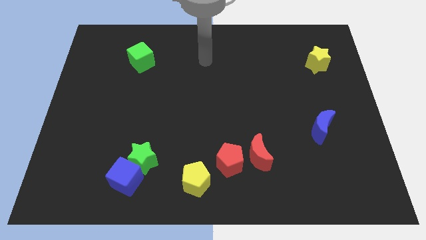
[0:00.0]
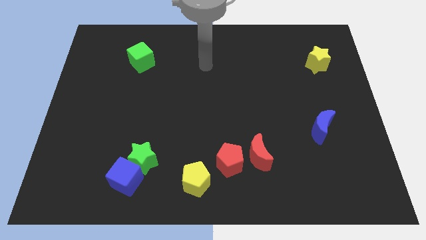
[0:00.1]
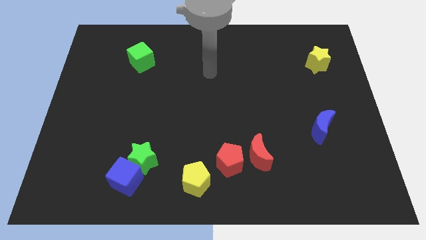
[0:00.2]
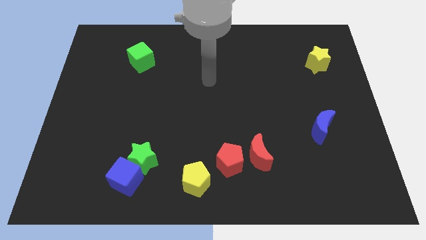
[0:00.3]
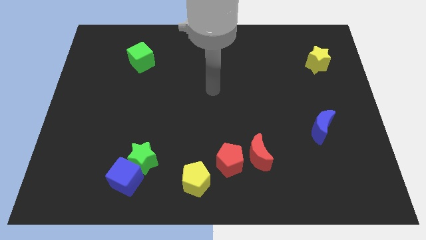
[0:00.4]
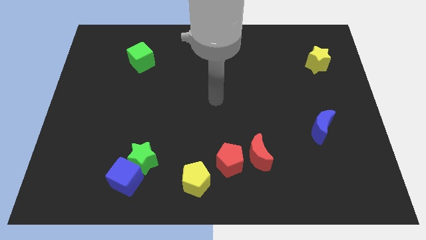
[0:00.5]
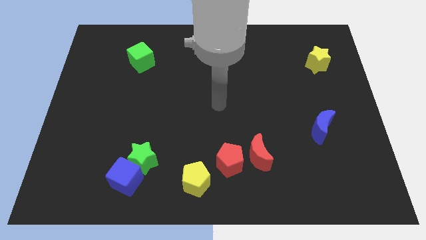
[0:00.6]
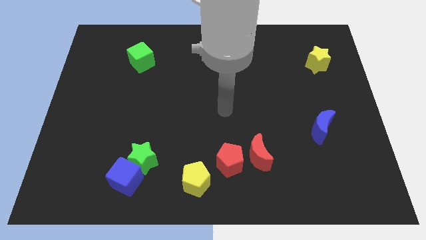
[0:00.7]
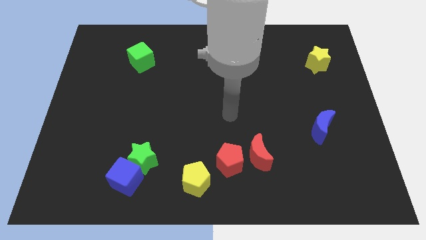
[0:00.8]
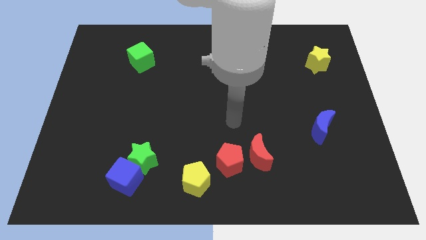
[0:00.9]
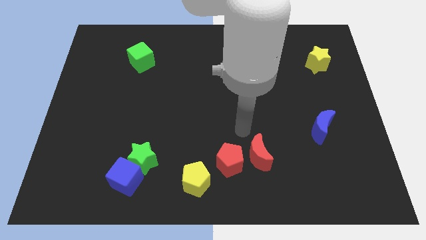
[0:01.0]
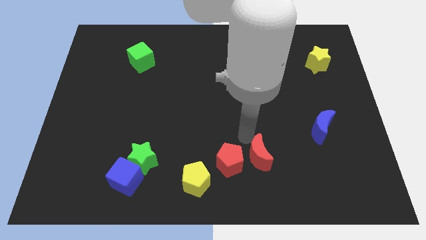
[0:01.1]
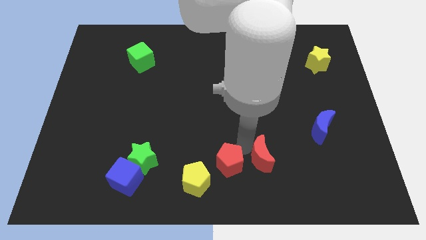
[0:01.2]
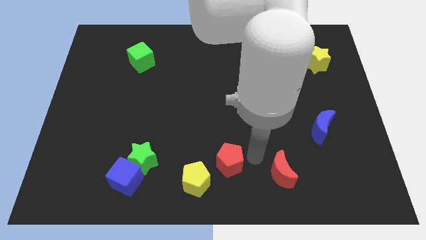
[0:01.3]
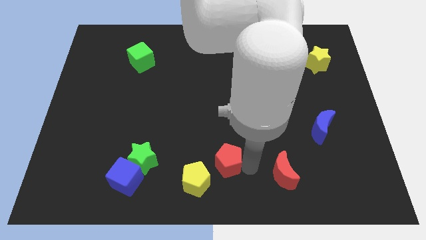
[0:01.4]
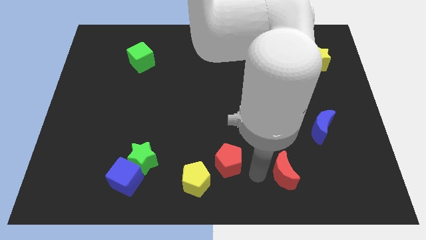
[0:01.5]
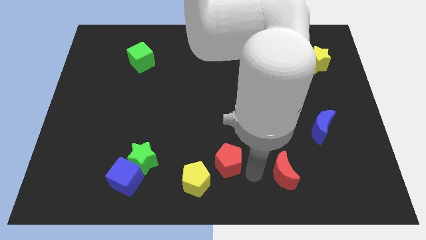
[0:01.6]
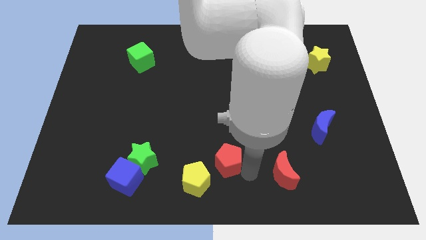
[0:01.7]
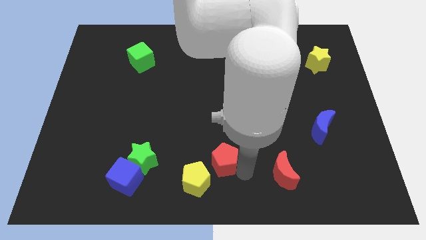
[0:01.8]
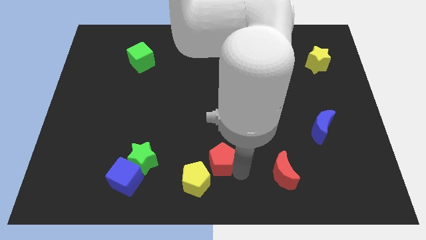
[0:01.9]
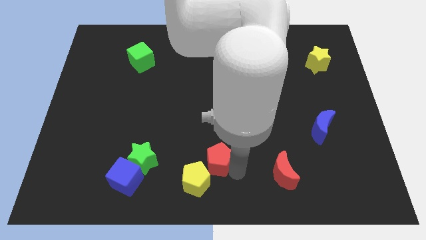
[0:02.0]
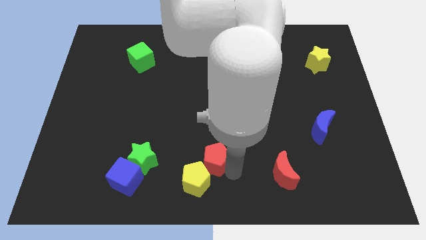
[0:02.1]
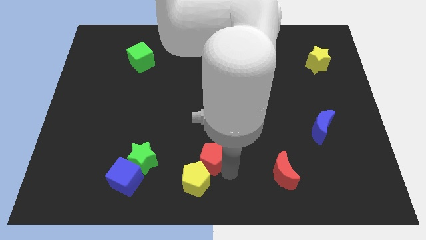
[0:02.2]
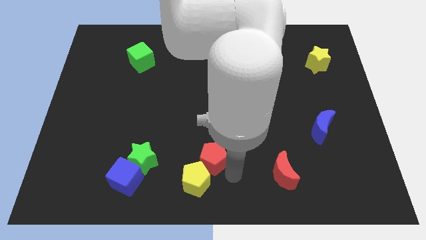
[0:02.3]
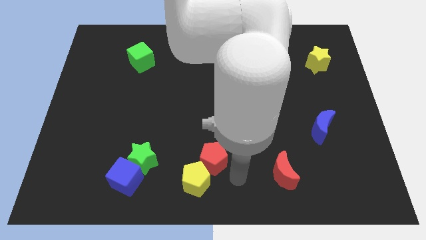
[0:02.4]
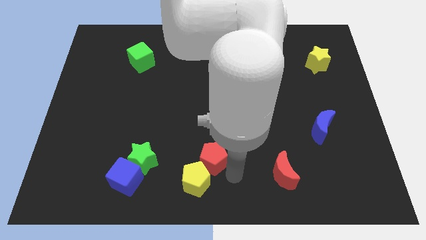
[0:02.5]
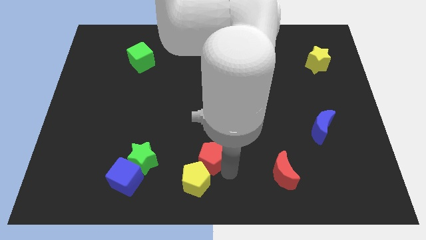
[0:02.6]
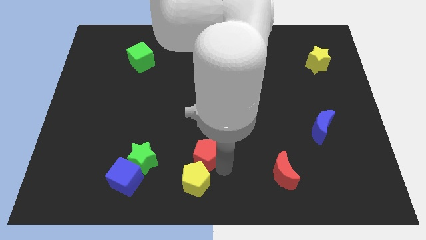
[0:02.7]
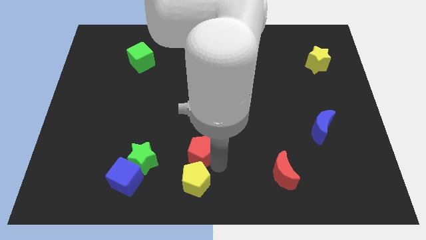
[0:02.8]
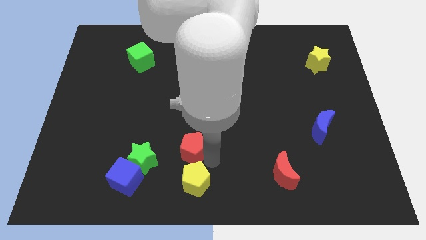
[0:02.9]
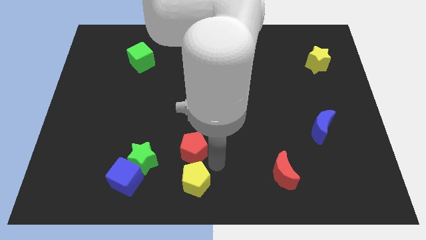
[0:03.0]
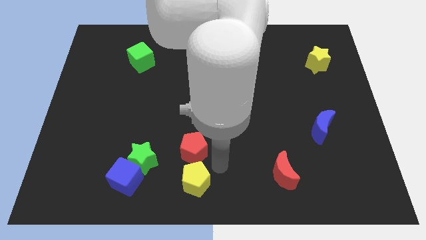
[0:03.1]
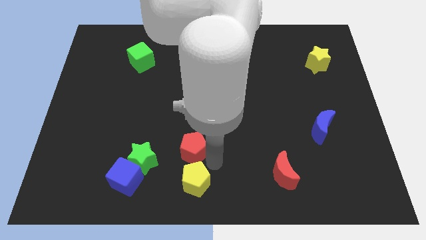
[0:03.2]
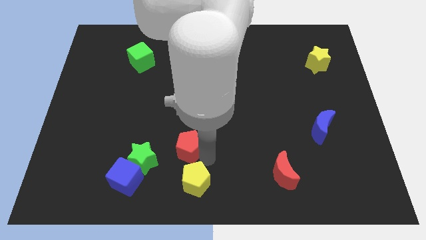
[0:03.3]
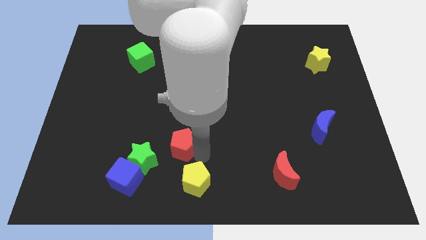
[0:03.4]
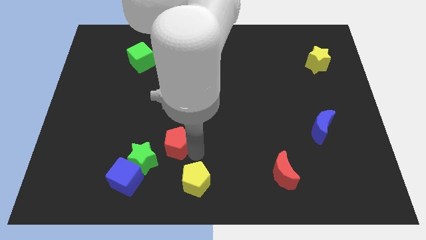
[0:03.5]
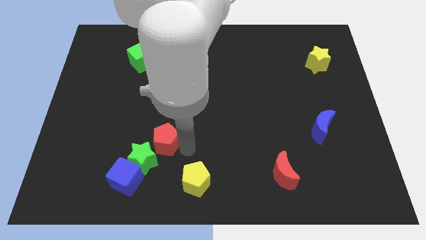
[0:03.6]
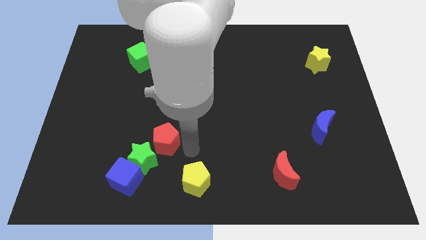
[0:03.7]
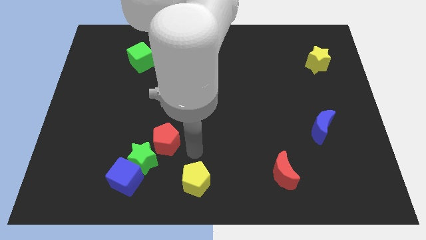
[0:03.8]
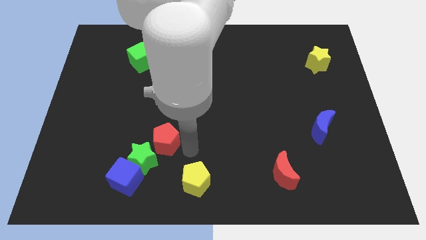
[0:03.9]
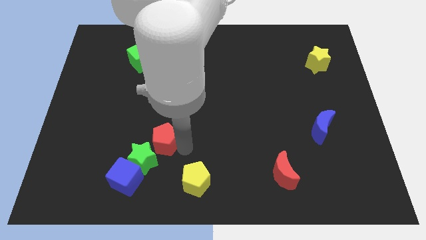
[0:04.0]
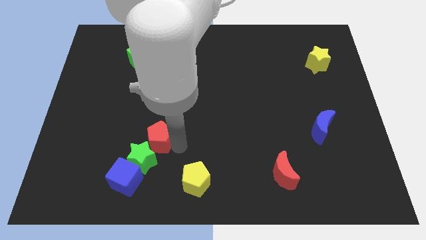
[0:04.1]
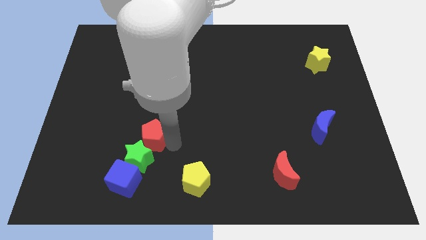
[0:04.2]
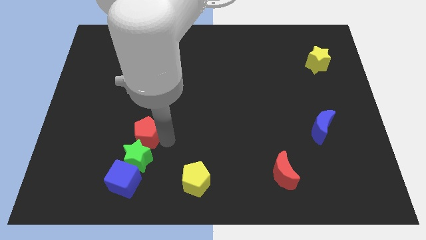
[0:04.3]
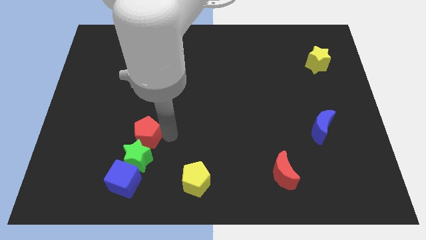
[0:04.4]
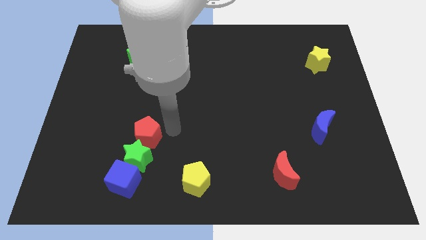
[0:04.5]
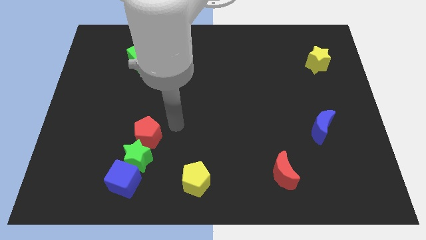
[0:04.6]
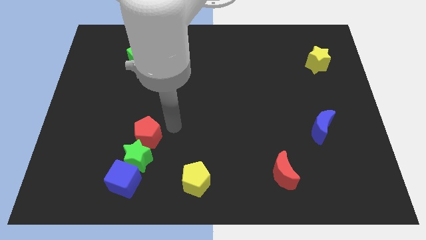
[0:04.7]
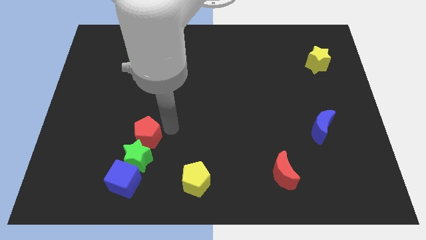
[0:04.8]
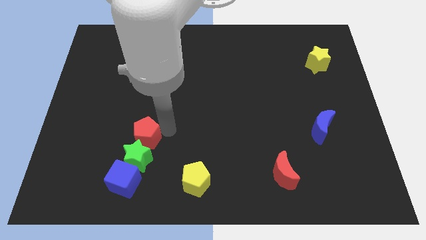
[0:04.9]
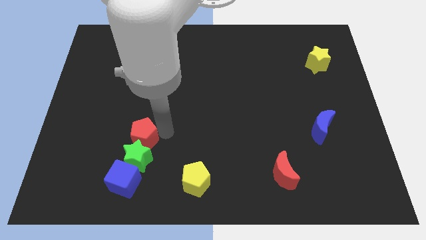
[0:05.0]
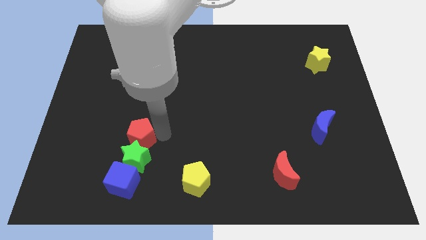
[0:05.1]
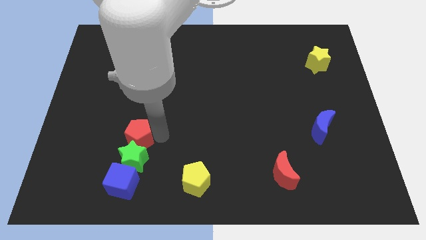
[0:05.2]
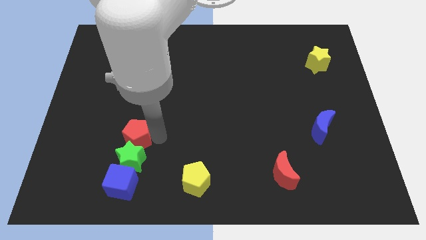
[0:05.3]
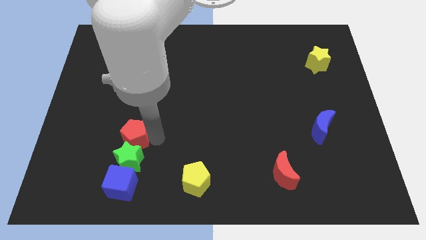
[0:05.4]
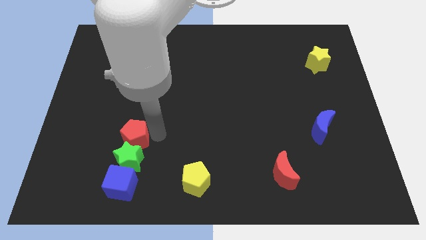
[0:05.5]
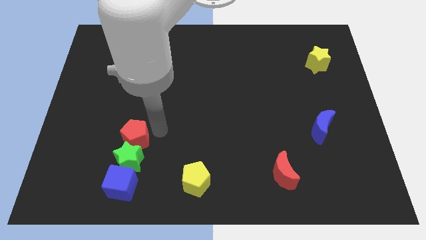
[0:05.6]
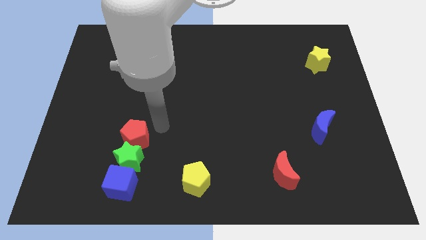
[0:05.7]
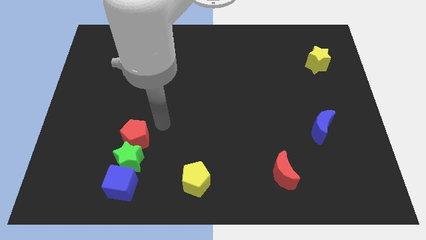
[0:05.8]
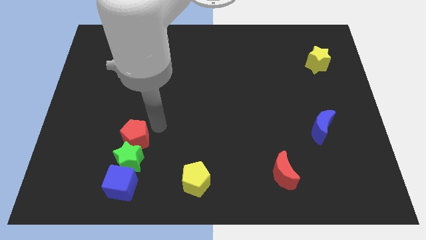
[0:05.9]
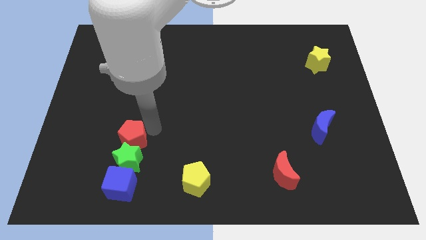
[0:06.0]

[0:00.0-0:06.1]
slide the red pentagon left

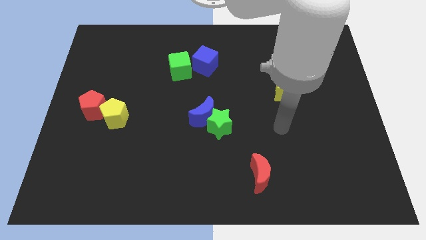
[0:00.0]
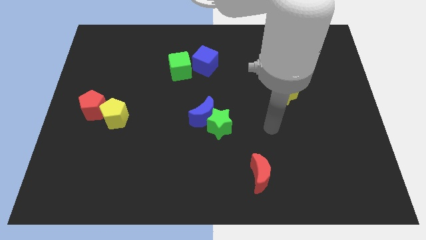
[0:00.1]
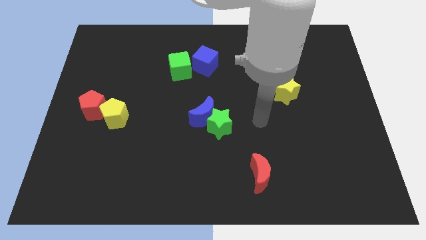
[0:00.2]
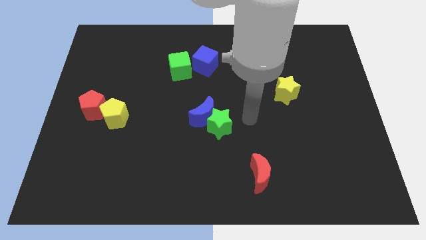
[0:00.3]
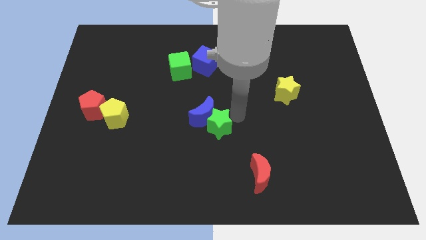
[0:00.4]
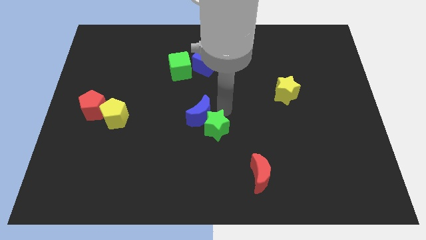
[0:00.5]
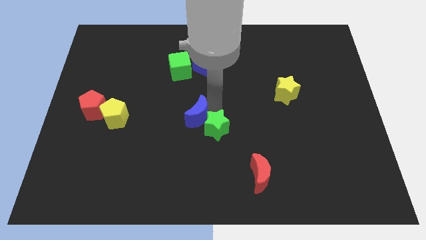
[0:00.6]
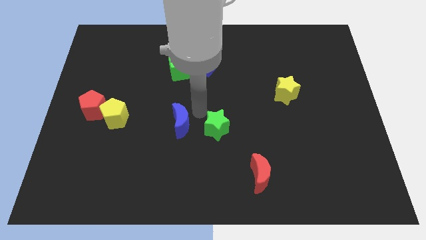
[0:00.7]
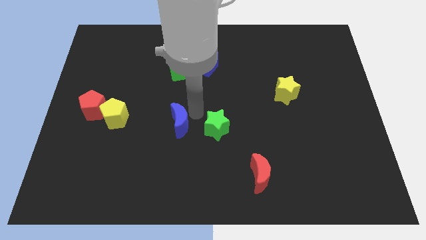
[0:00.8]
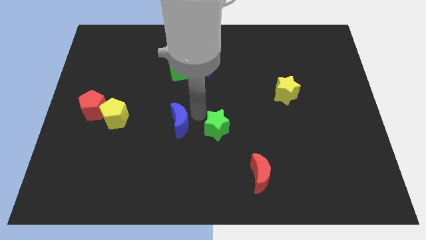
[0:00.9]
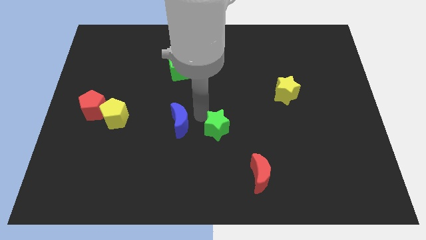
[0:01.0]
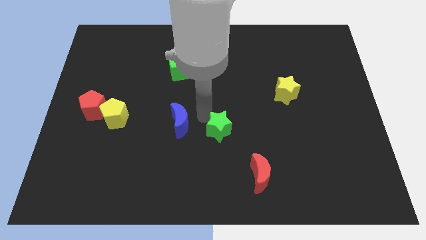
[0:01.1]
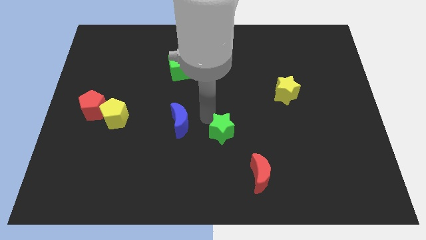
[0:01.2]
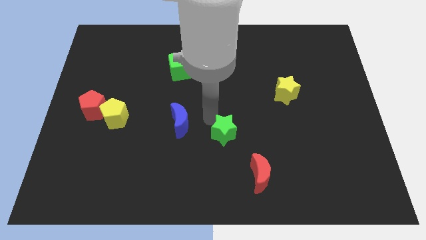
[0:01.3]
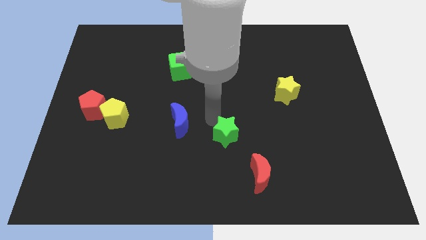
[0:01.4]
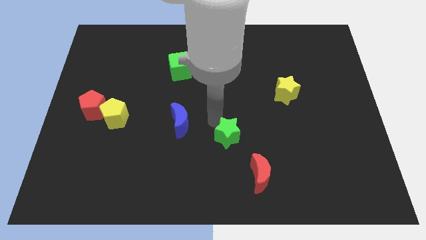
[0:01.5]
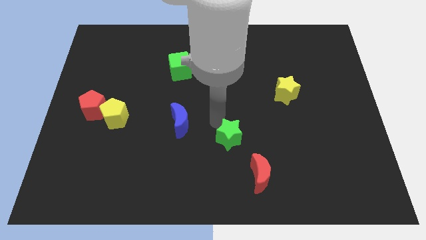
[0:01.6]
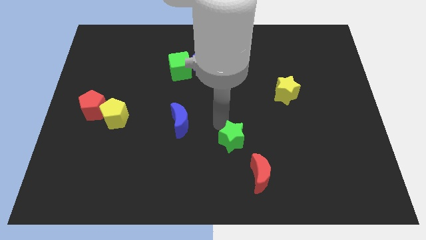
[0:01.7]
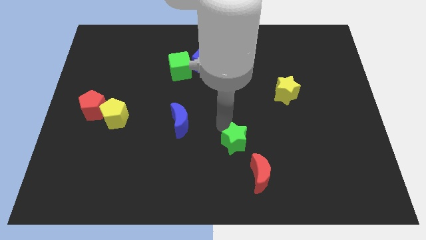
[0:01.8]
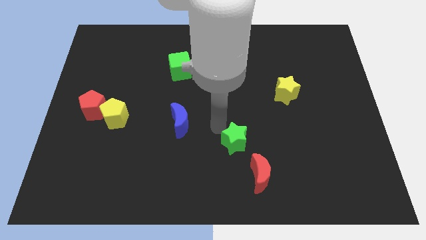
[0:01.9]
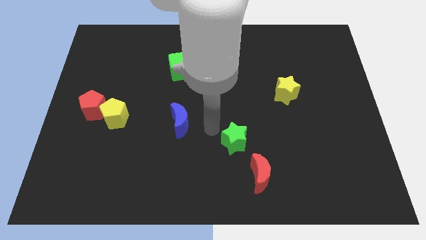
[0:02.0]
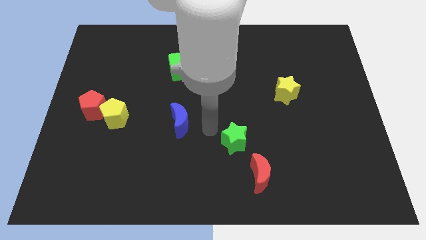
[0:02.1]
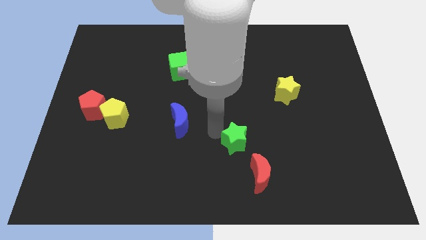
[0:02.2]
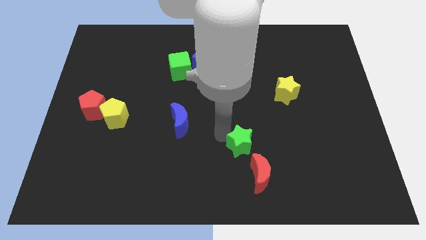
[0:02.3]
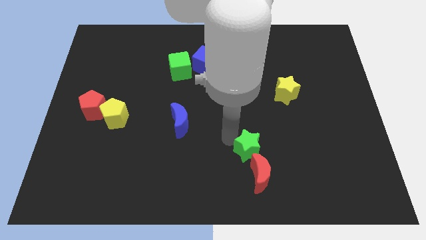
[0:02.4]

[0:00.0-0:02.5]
slightly push the green star down and then right
